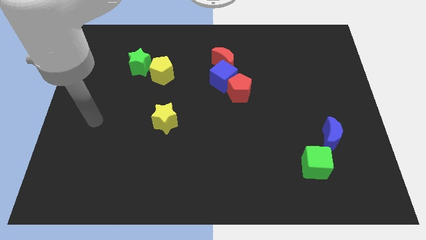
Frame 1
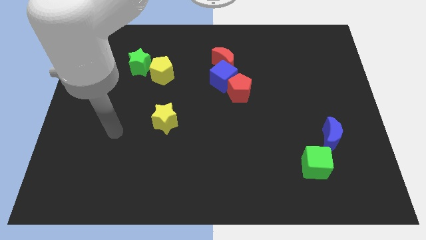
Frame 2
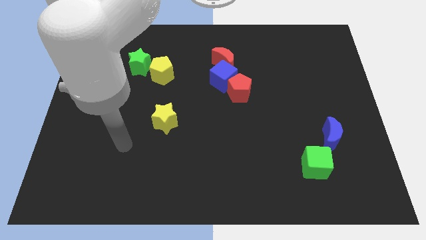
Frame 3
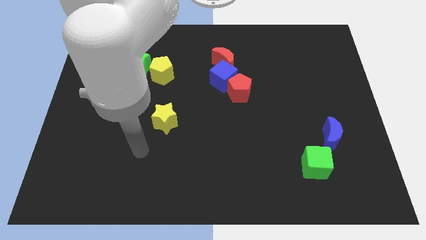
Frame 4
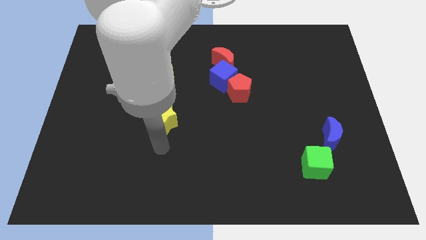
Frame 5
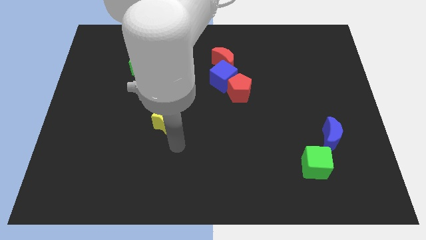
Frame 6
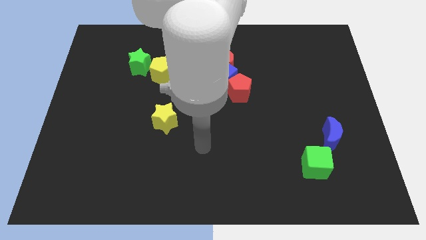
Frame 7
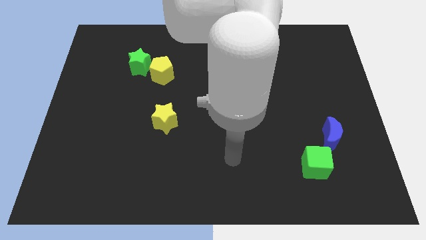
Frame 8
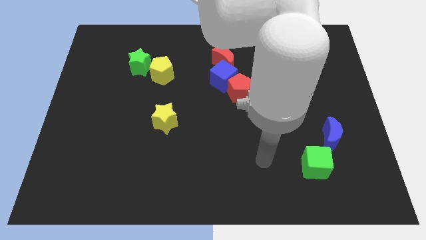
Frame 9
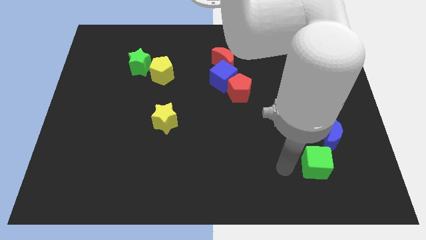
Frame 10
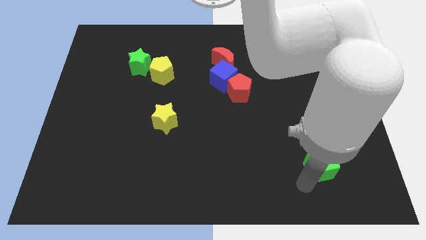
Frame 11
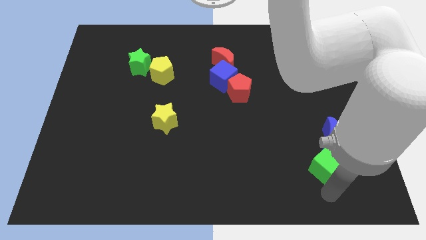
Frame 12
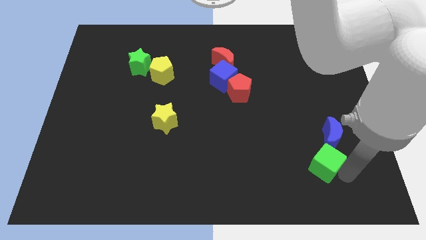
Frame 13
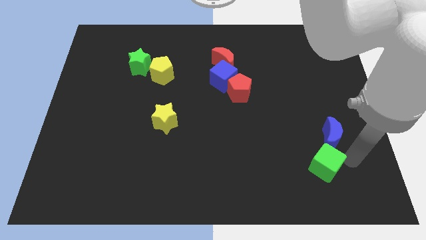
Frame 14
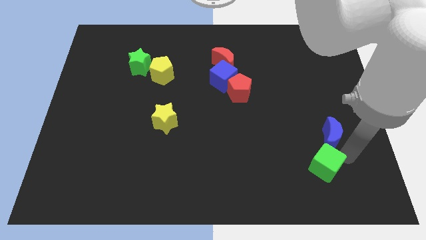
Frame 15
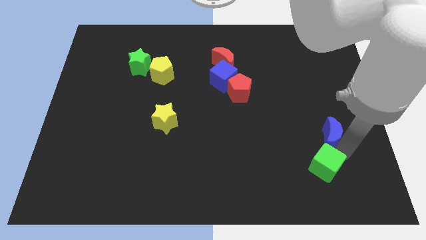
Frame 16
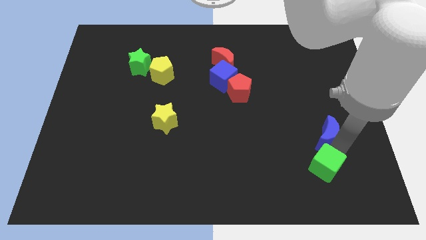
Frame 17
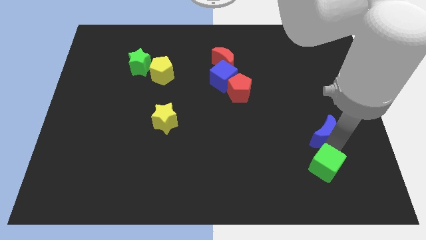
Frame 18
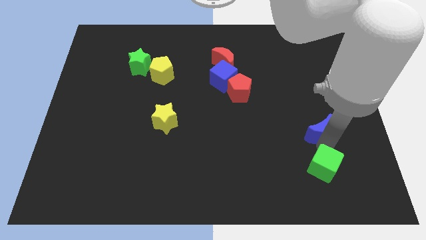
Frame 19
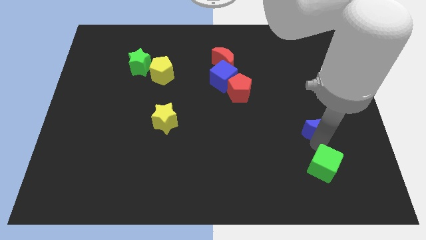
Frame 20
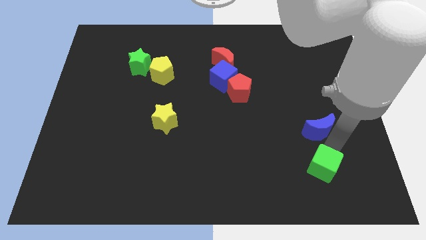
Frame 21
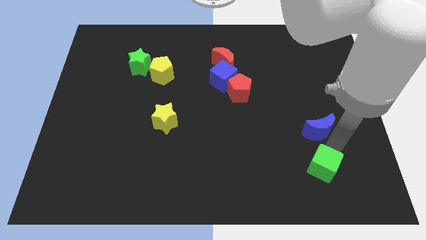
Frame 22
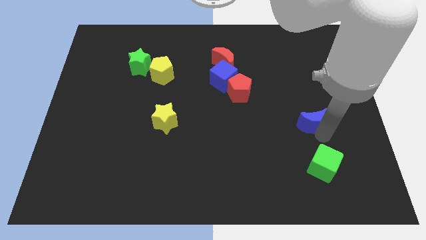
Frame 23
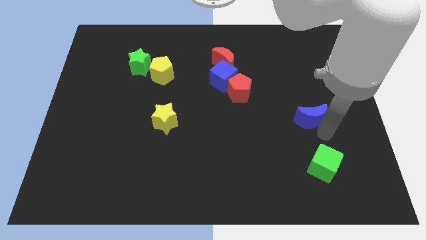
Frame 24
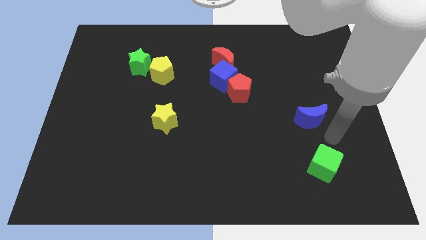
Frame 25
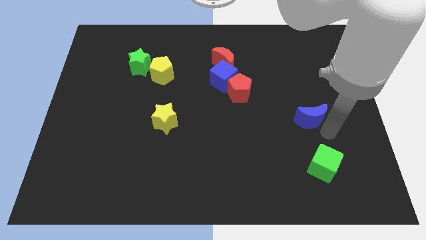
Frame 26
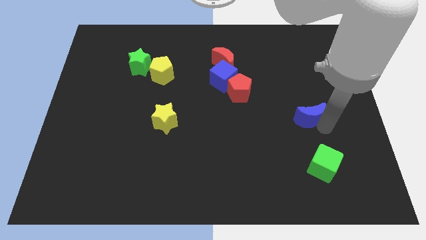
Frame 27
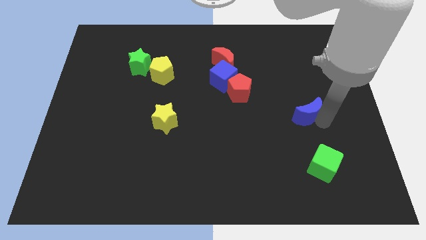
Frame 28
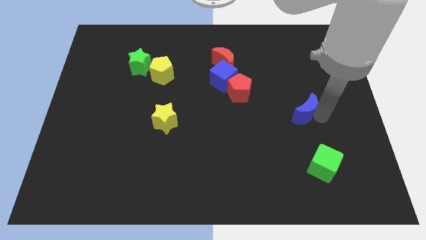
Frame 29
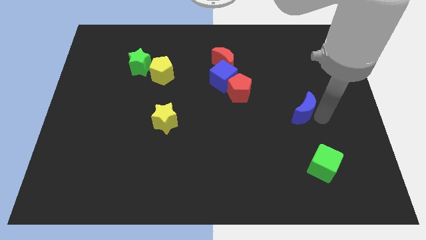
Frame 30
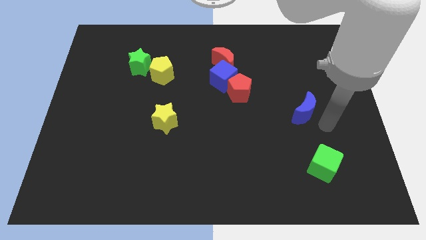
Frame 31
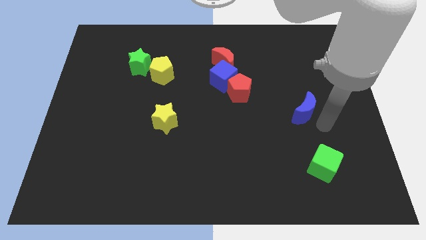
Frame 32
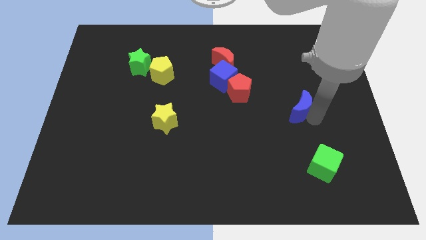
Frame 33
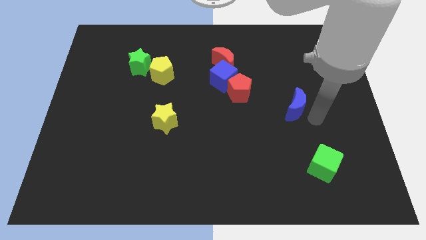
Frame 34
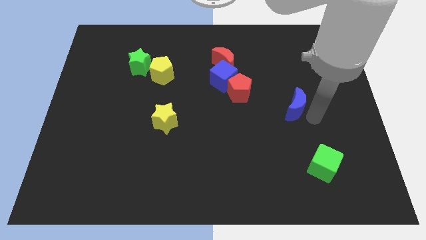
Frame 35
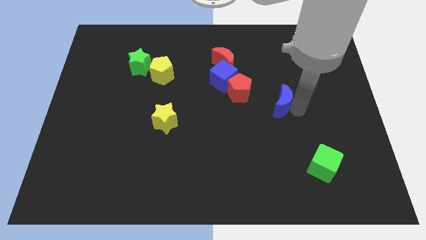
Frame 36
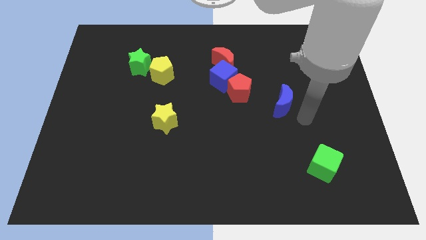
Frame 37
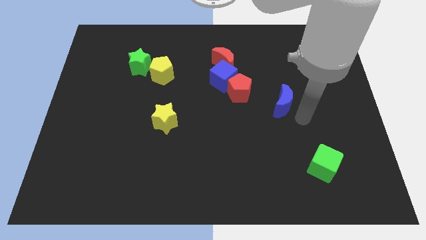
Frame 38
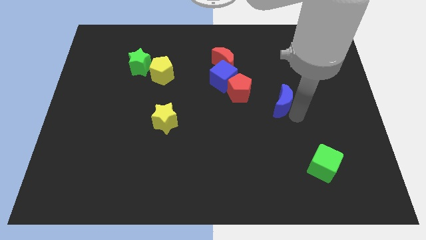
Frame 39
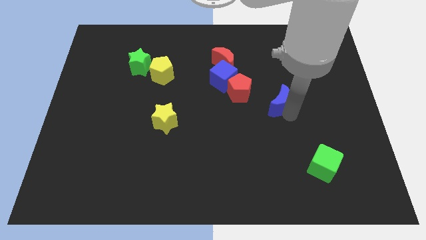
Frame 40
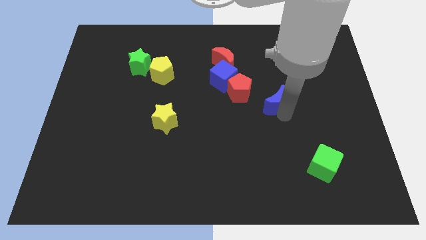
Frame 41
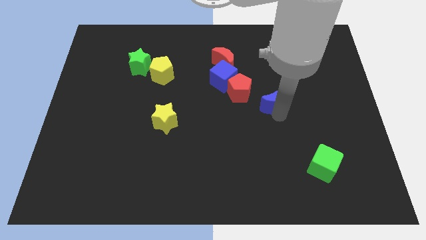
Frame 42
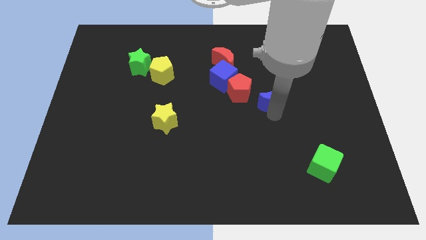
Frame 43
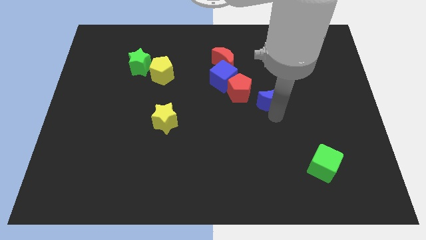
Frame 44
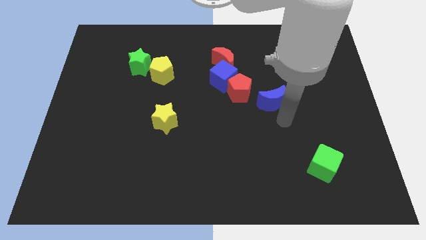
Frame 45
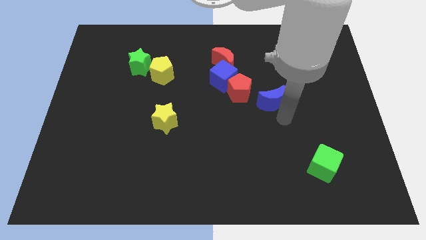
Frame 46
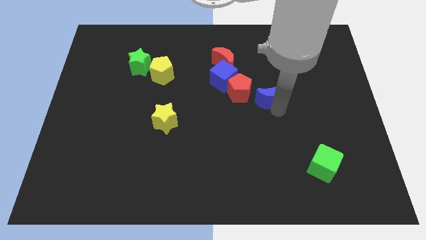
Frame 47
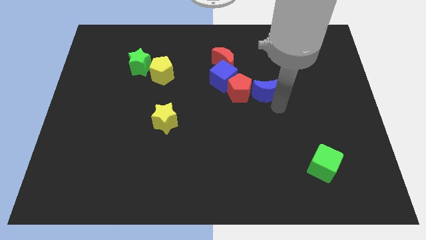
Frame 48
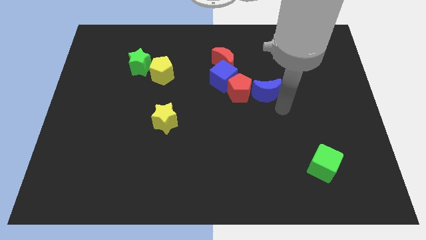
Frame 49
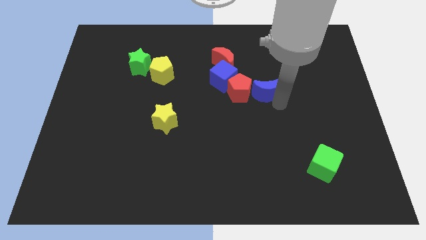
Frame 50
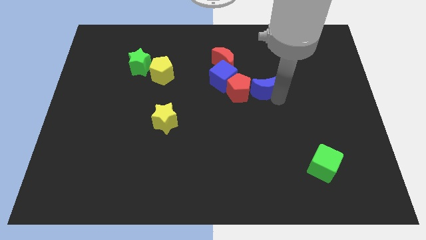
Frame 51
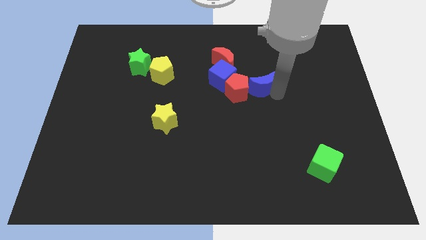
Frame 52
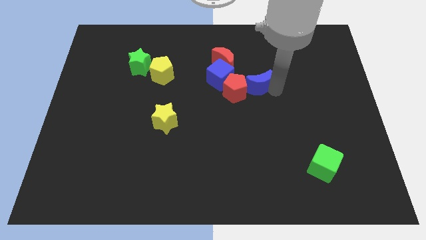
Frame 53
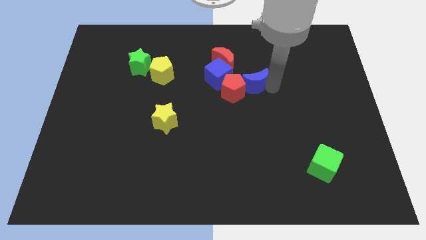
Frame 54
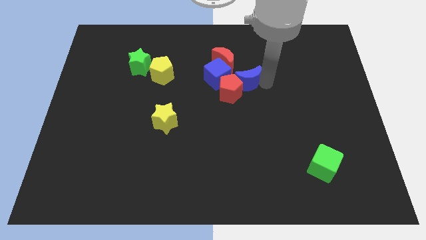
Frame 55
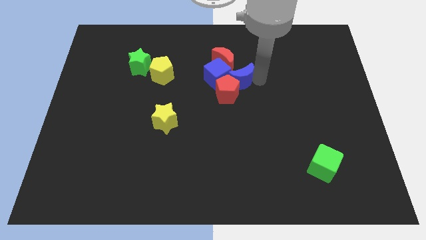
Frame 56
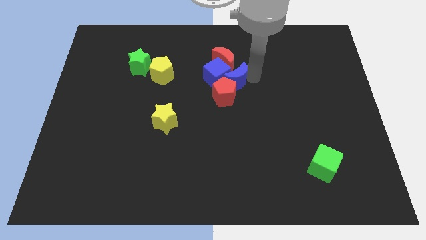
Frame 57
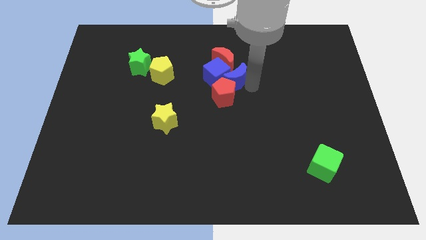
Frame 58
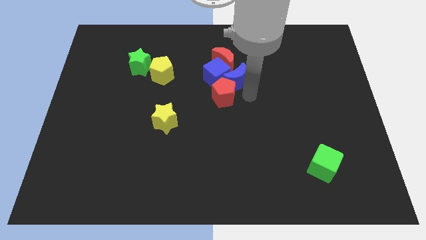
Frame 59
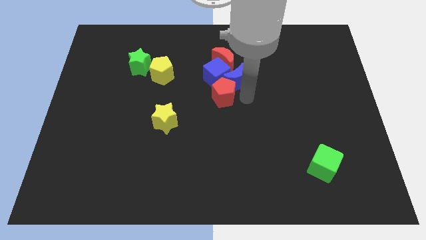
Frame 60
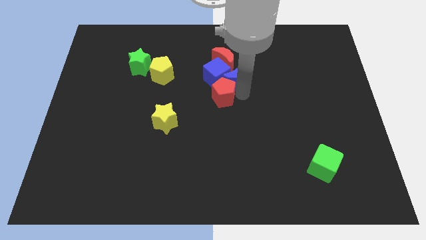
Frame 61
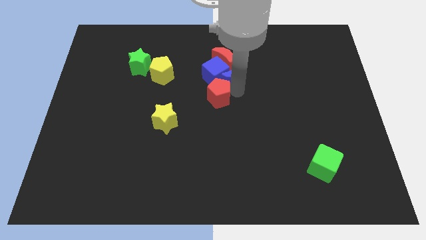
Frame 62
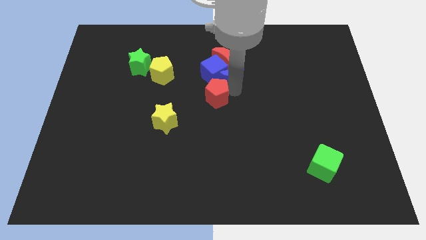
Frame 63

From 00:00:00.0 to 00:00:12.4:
push the blue moon to the red moon
